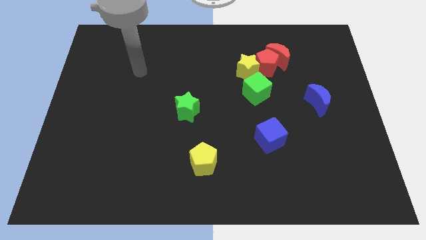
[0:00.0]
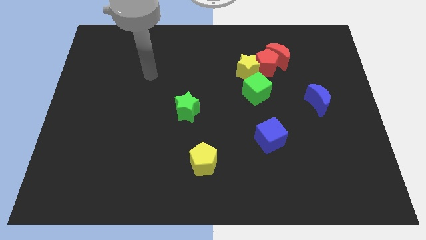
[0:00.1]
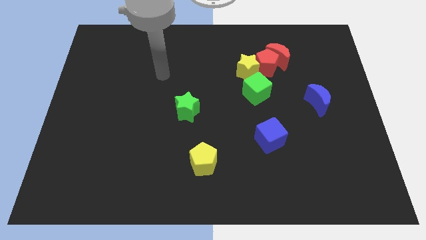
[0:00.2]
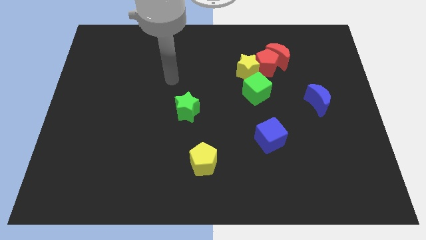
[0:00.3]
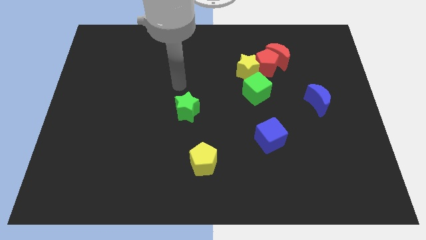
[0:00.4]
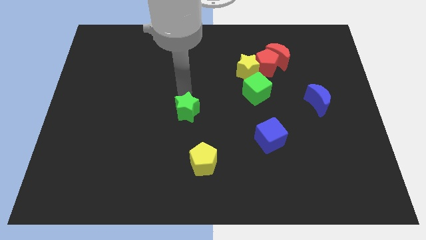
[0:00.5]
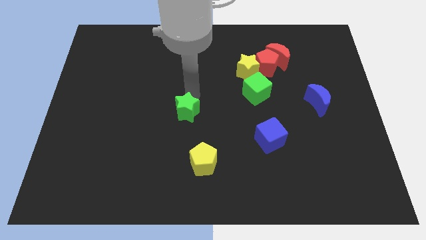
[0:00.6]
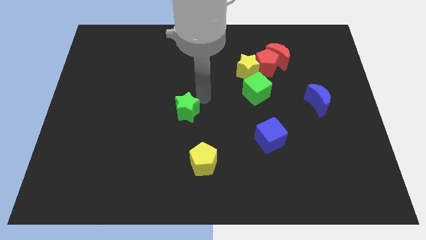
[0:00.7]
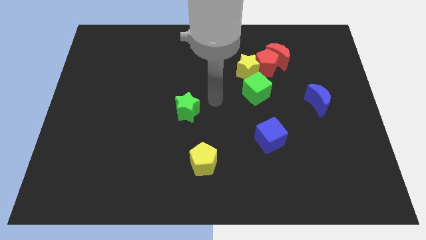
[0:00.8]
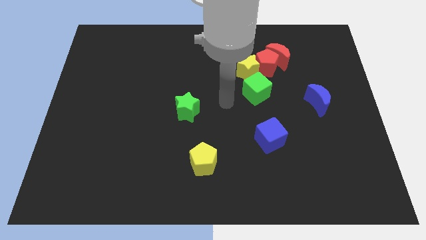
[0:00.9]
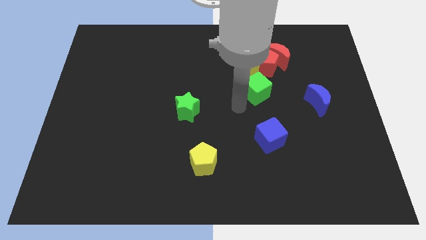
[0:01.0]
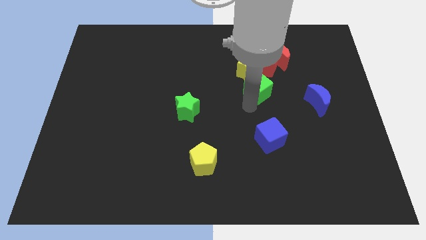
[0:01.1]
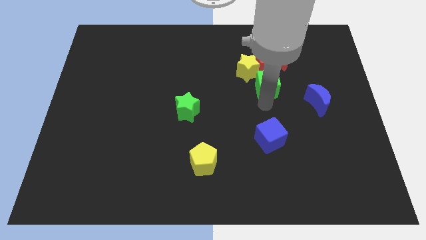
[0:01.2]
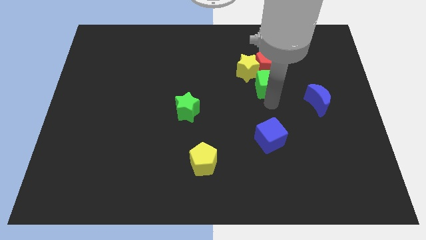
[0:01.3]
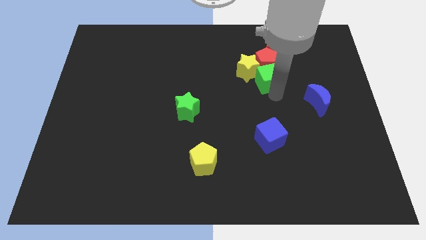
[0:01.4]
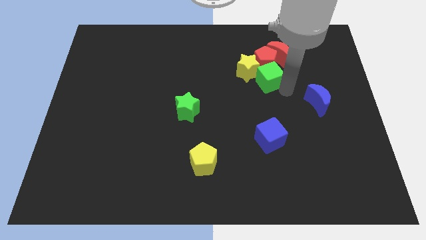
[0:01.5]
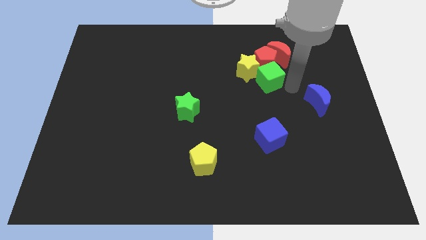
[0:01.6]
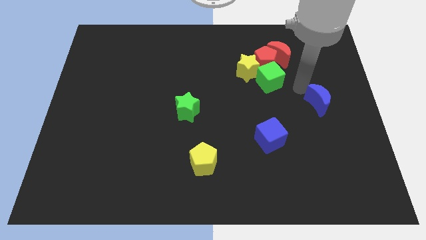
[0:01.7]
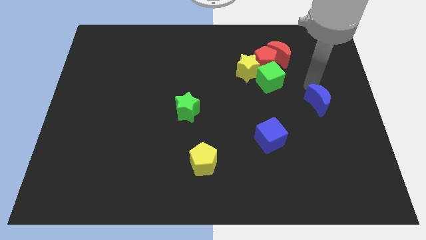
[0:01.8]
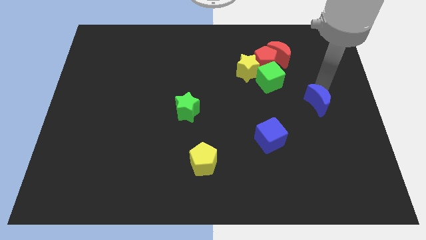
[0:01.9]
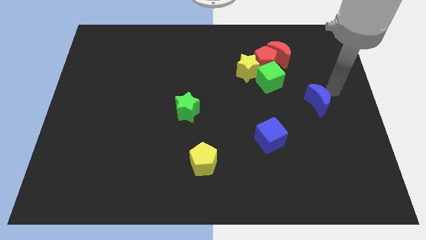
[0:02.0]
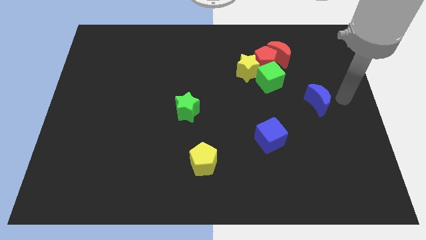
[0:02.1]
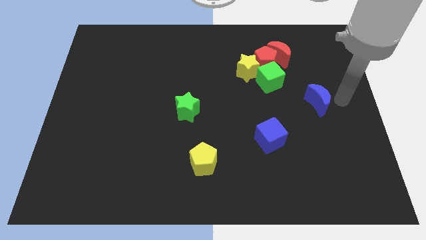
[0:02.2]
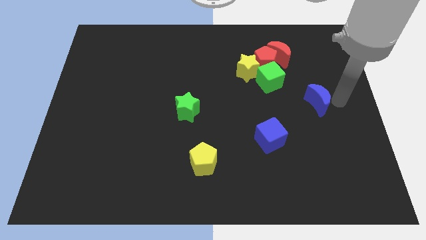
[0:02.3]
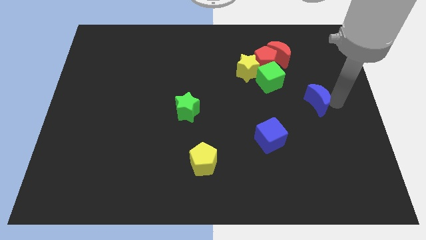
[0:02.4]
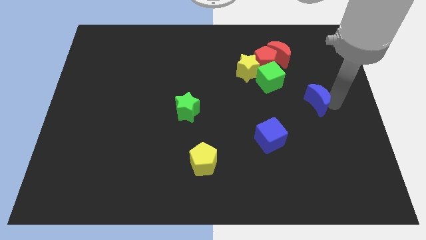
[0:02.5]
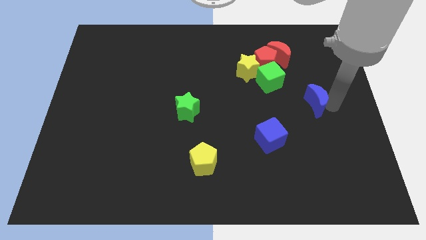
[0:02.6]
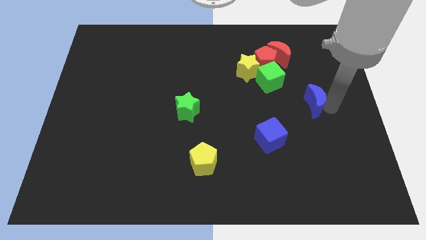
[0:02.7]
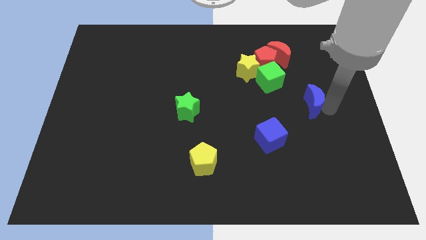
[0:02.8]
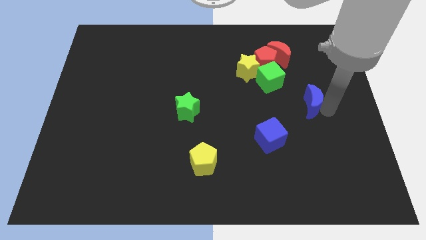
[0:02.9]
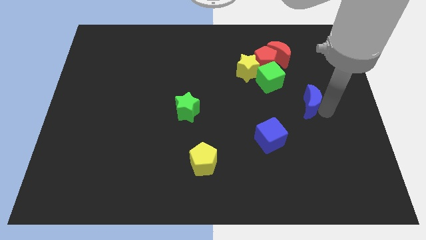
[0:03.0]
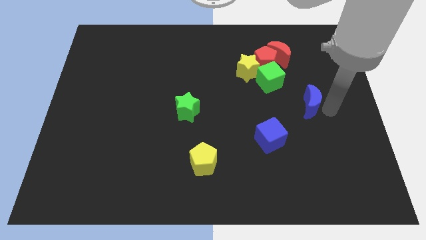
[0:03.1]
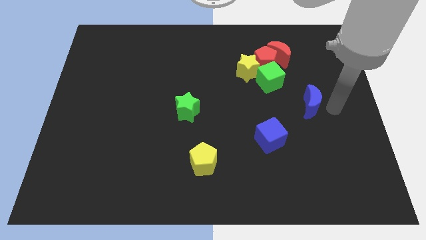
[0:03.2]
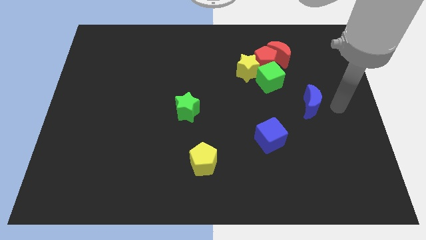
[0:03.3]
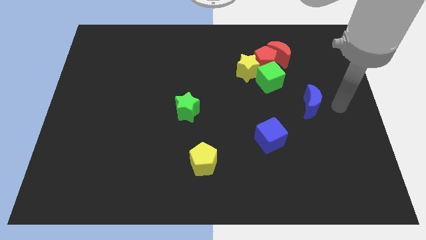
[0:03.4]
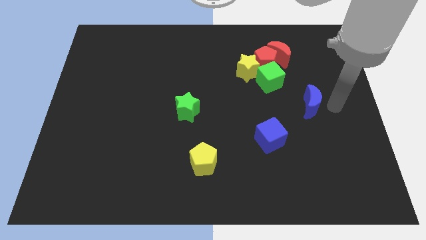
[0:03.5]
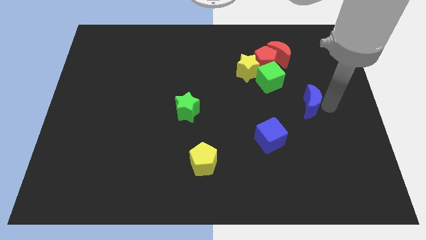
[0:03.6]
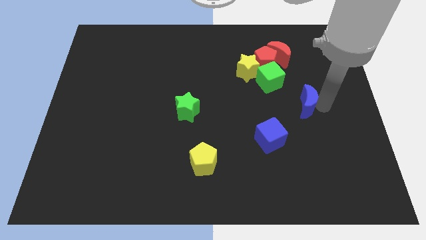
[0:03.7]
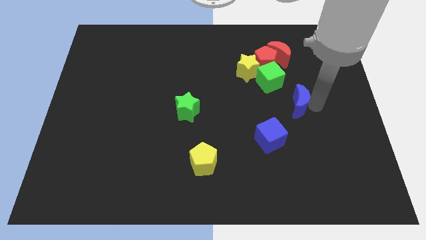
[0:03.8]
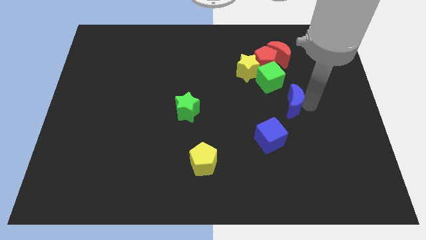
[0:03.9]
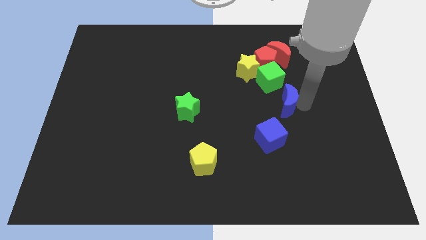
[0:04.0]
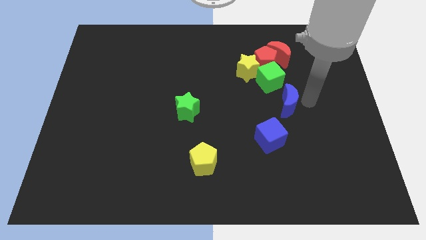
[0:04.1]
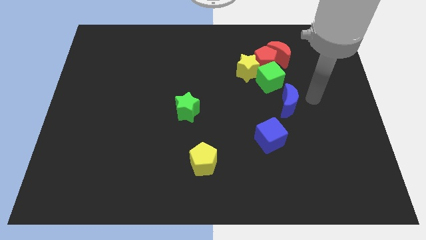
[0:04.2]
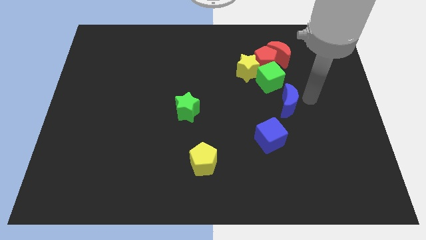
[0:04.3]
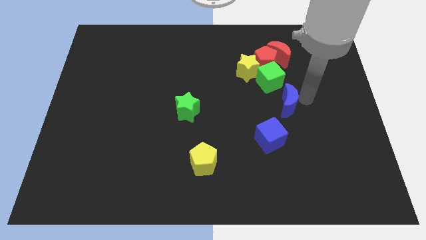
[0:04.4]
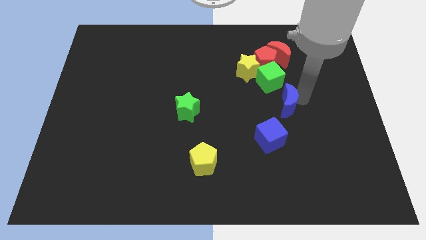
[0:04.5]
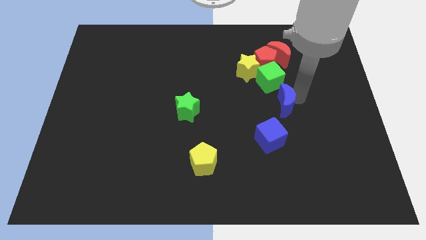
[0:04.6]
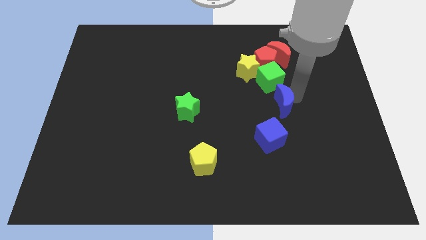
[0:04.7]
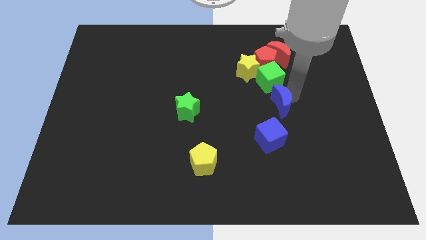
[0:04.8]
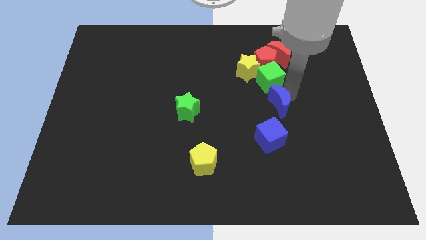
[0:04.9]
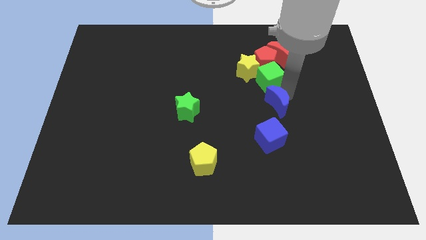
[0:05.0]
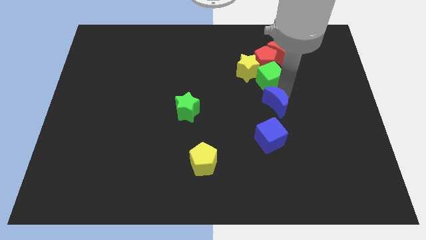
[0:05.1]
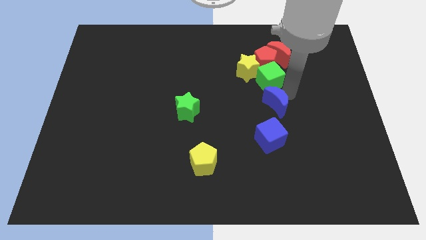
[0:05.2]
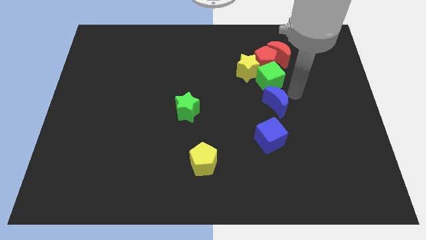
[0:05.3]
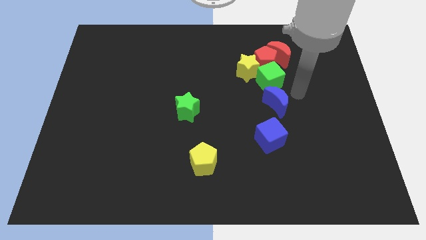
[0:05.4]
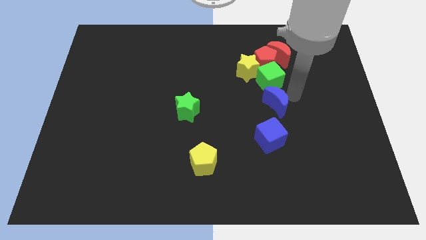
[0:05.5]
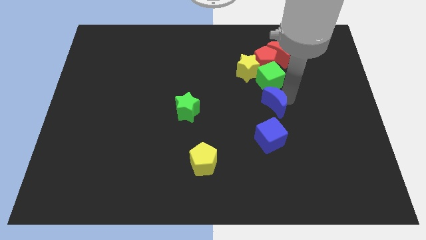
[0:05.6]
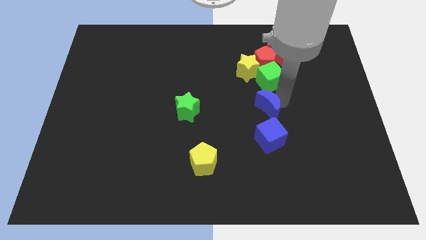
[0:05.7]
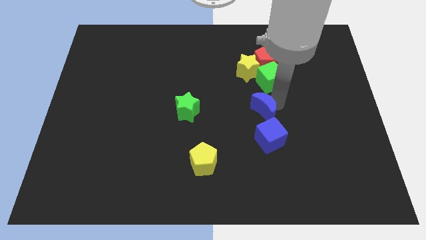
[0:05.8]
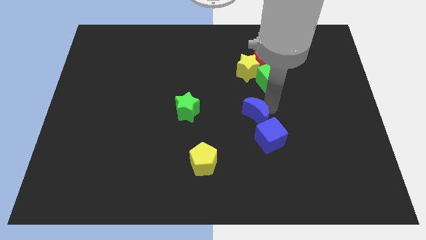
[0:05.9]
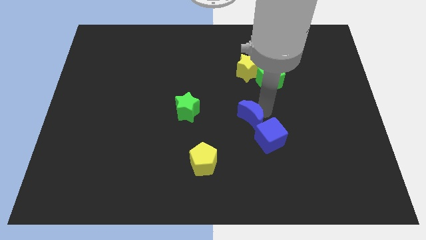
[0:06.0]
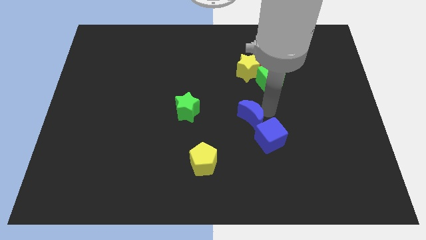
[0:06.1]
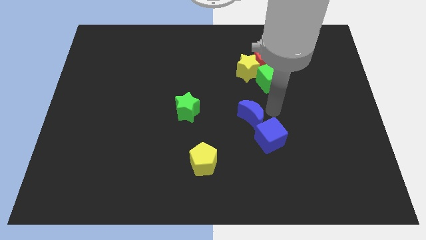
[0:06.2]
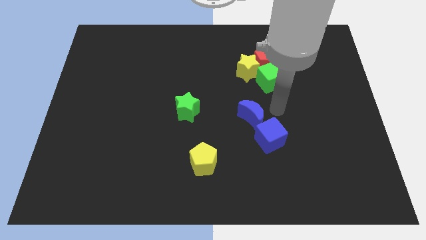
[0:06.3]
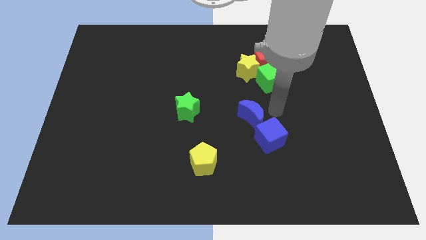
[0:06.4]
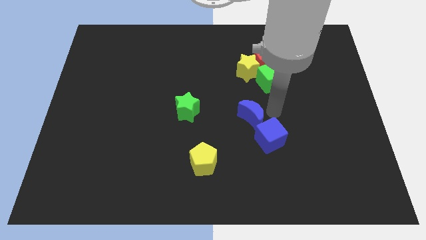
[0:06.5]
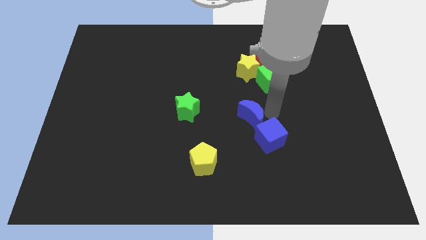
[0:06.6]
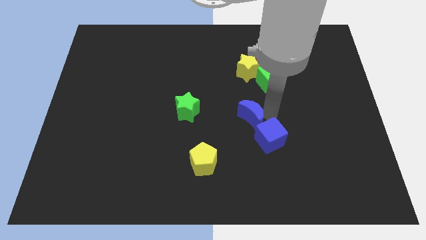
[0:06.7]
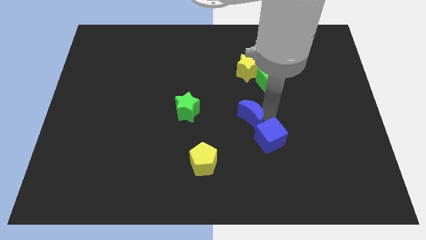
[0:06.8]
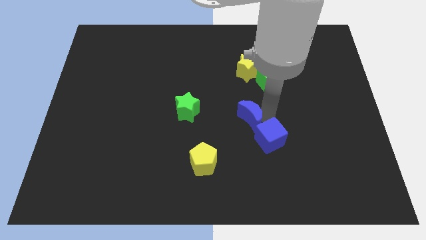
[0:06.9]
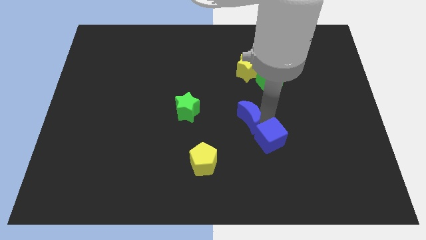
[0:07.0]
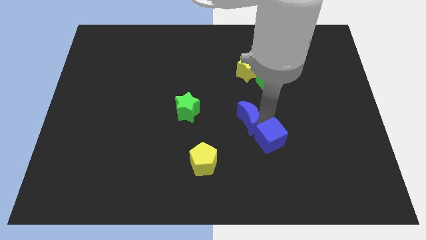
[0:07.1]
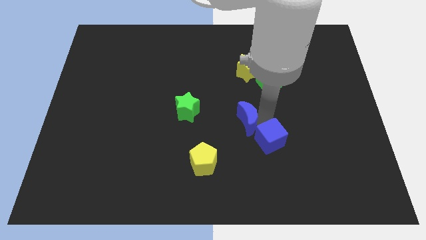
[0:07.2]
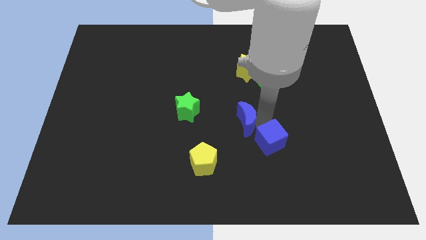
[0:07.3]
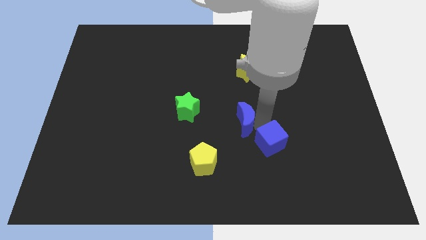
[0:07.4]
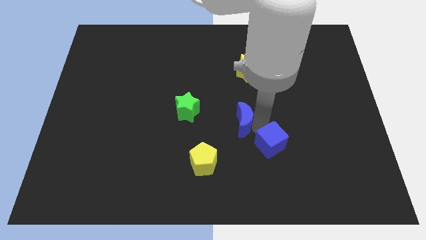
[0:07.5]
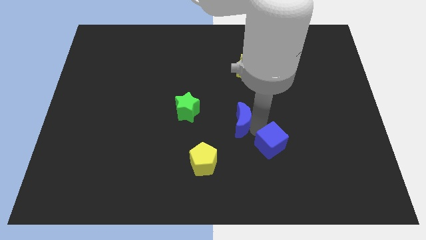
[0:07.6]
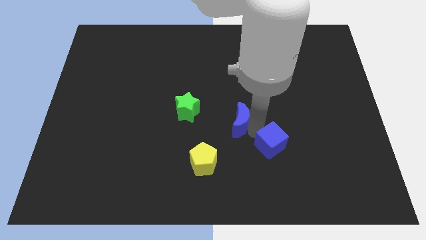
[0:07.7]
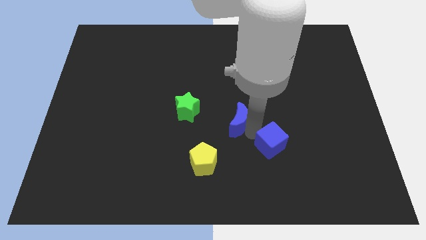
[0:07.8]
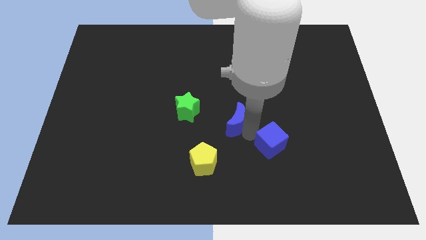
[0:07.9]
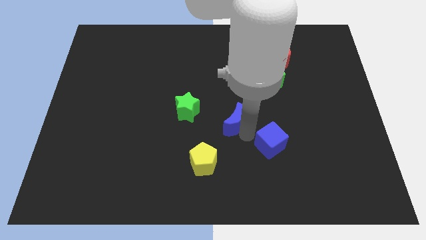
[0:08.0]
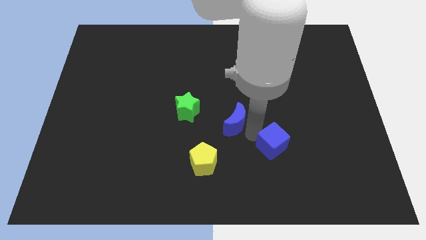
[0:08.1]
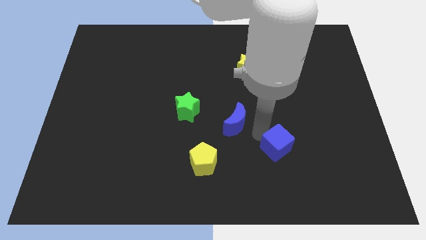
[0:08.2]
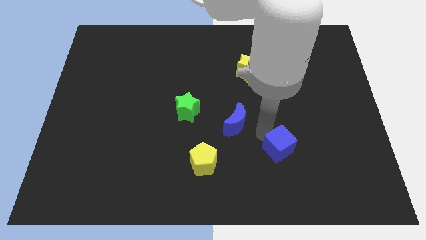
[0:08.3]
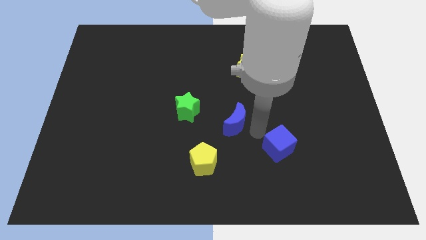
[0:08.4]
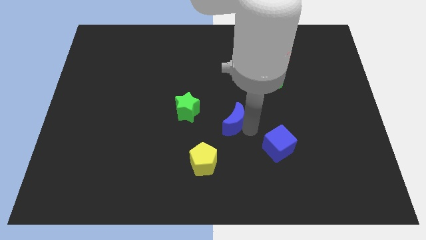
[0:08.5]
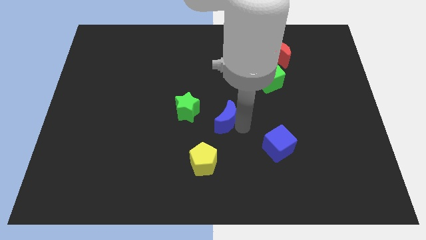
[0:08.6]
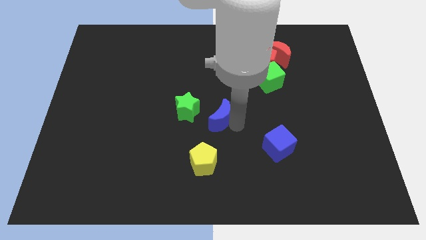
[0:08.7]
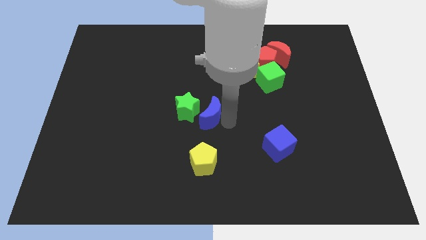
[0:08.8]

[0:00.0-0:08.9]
slide the blue moon next to the green star
